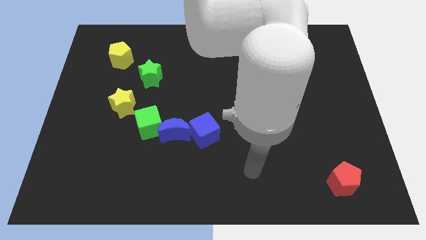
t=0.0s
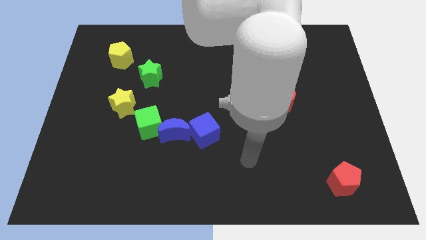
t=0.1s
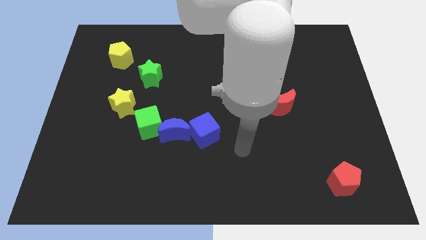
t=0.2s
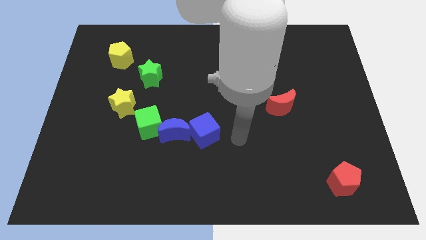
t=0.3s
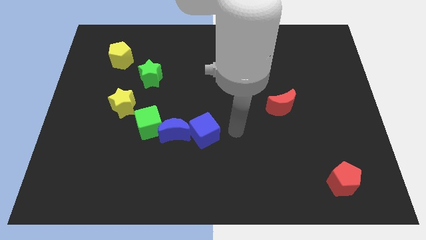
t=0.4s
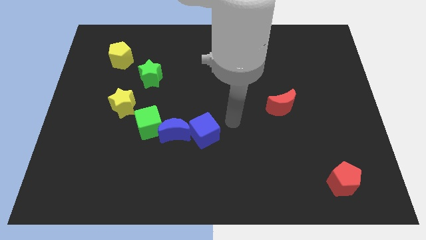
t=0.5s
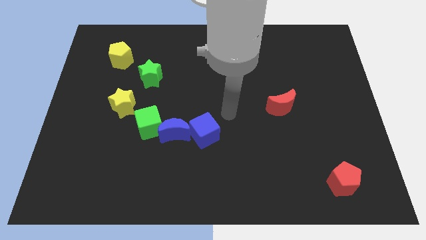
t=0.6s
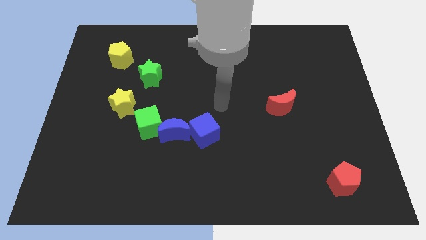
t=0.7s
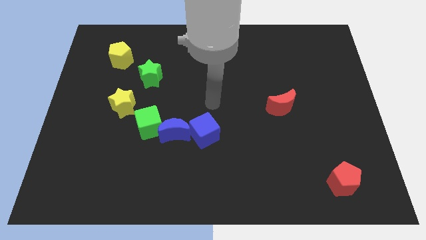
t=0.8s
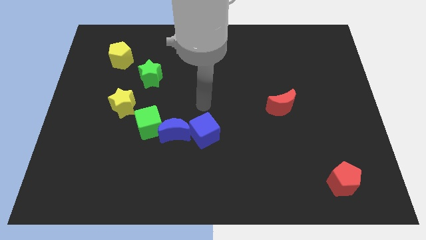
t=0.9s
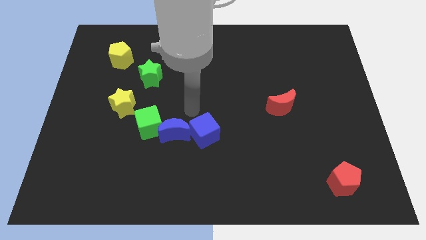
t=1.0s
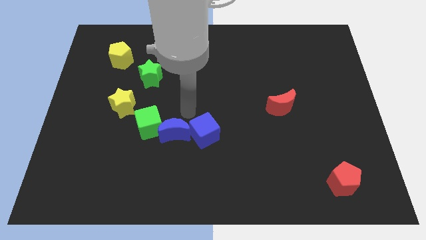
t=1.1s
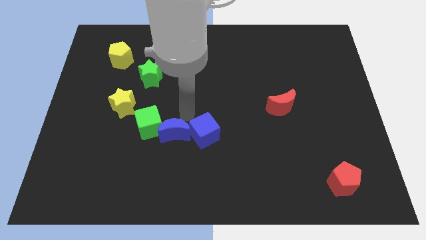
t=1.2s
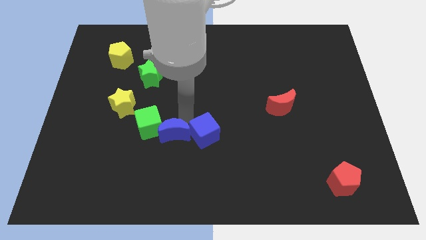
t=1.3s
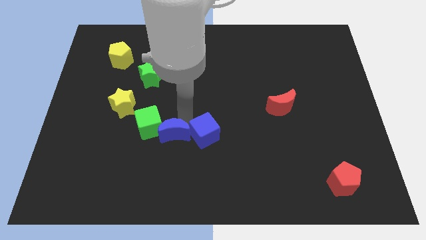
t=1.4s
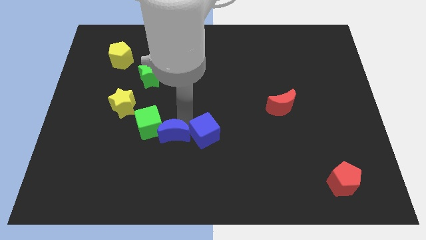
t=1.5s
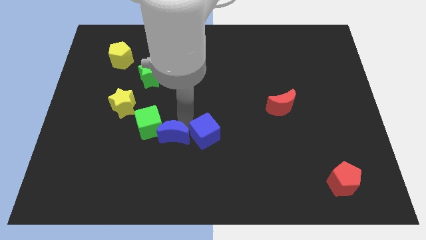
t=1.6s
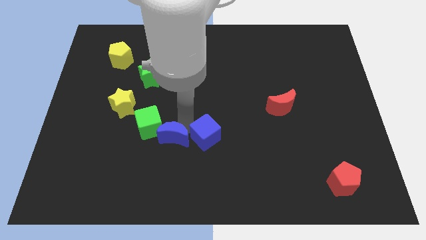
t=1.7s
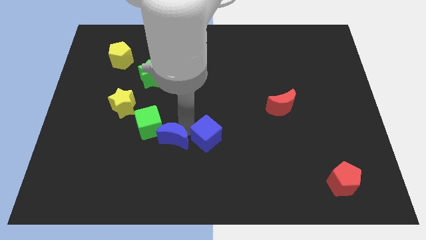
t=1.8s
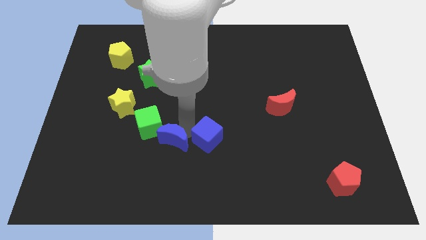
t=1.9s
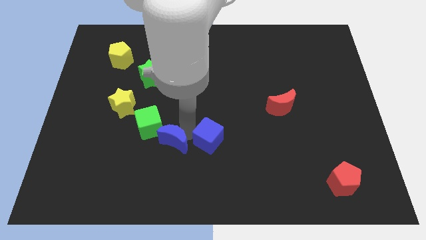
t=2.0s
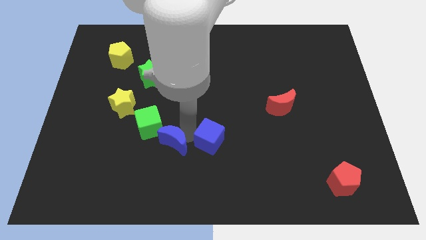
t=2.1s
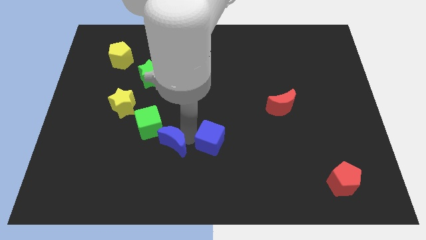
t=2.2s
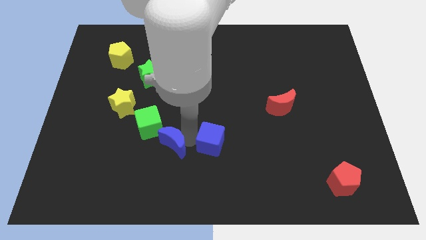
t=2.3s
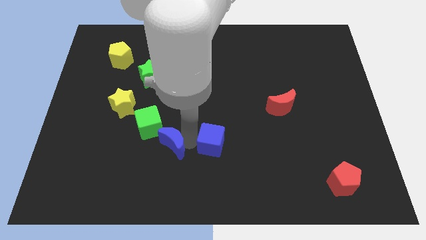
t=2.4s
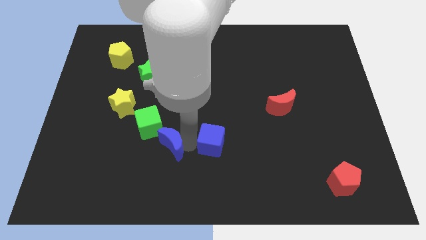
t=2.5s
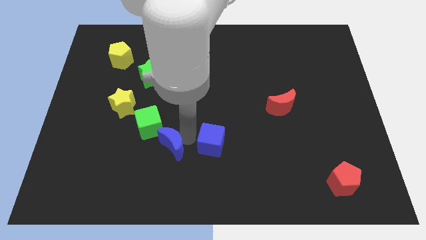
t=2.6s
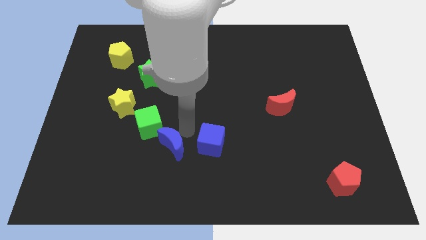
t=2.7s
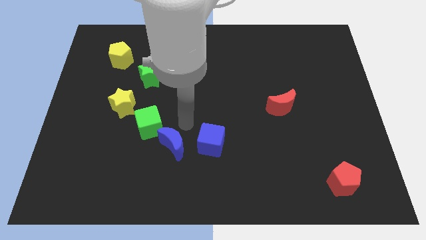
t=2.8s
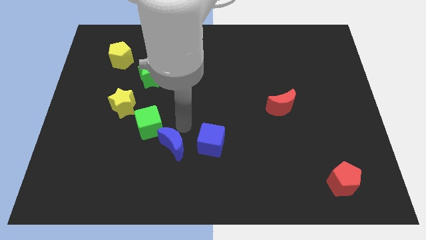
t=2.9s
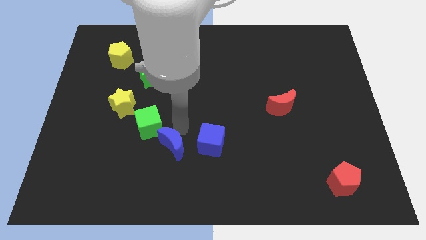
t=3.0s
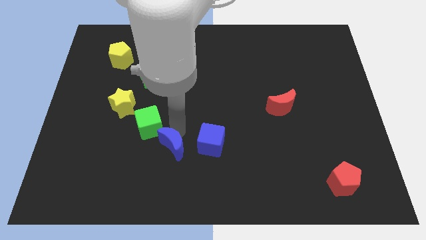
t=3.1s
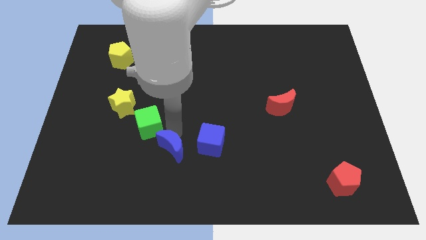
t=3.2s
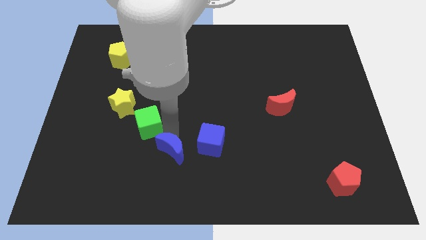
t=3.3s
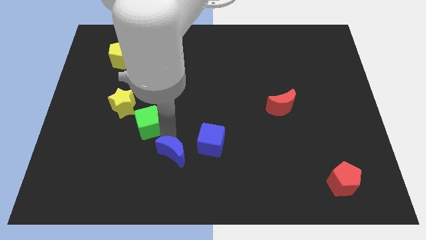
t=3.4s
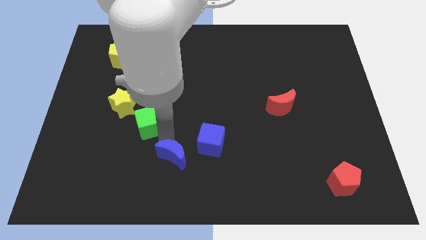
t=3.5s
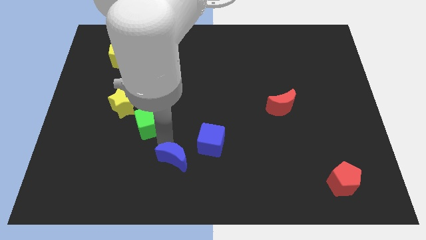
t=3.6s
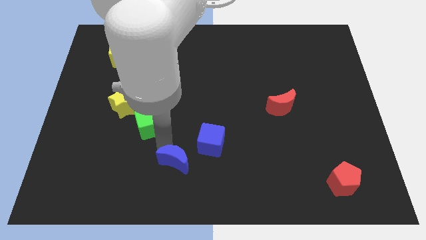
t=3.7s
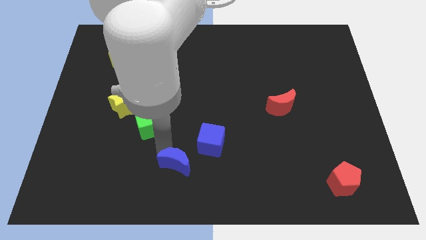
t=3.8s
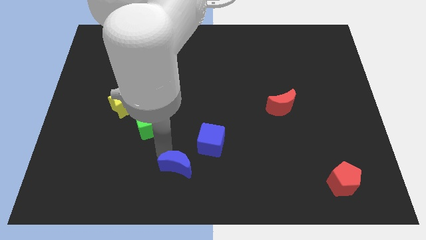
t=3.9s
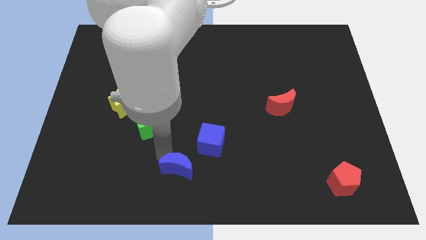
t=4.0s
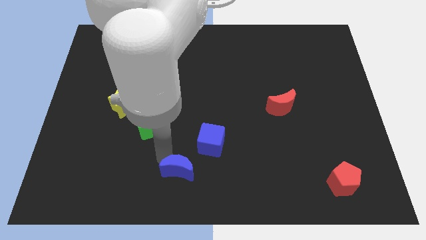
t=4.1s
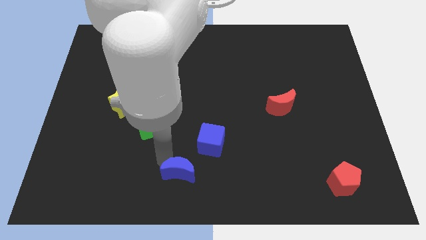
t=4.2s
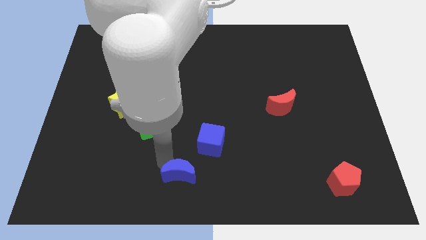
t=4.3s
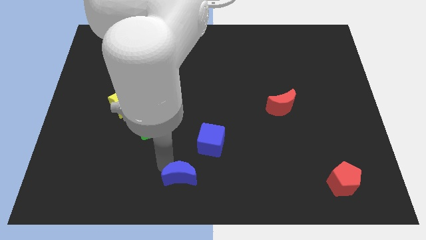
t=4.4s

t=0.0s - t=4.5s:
separate the blue moon from the green cube and blue cube

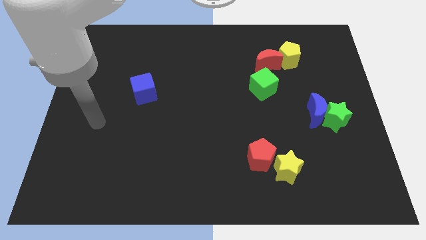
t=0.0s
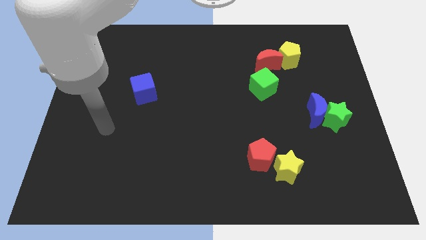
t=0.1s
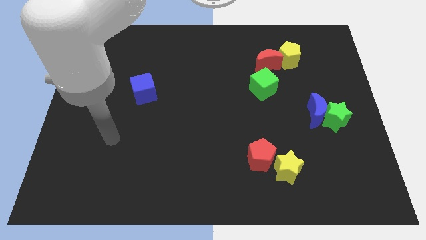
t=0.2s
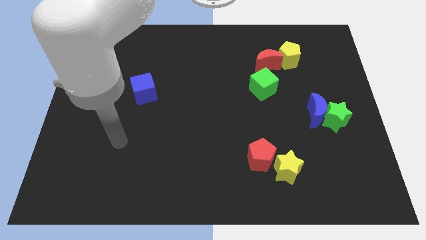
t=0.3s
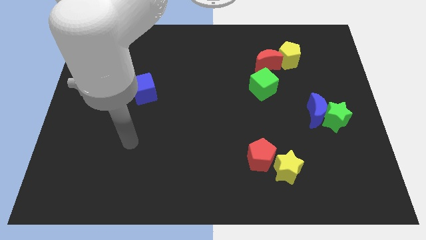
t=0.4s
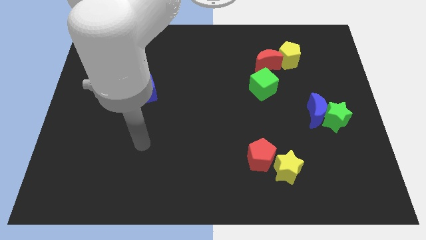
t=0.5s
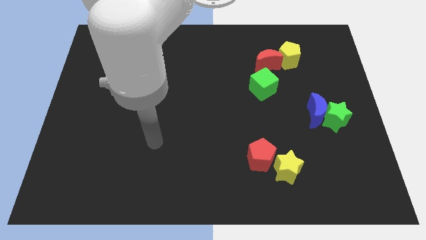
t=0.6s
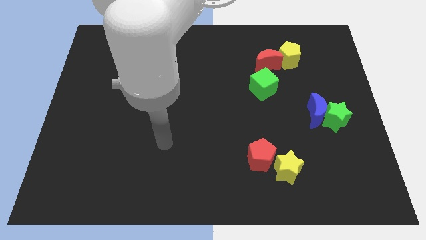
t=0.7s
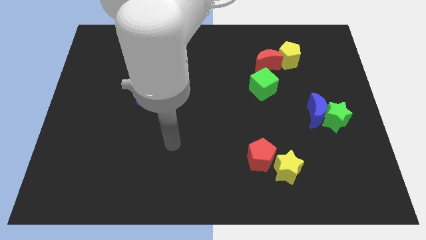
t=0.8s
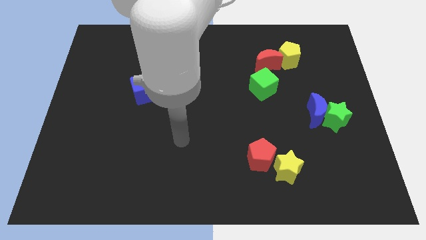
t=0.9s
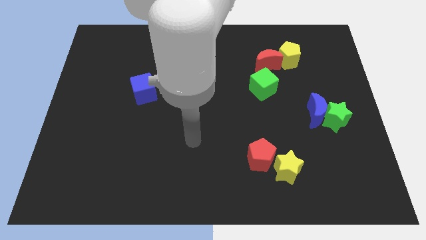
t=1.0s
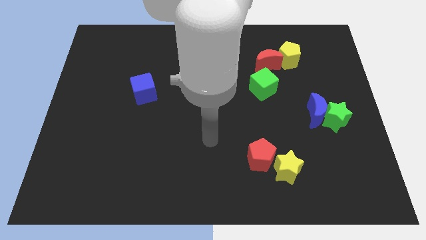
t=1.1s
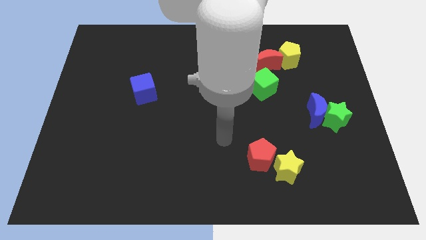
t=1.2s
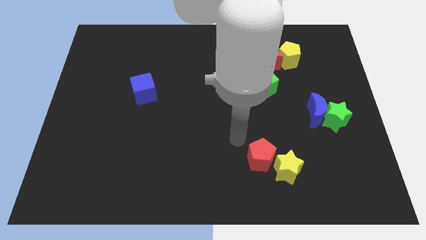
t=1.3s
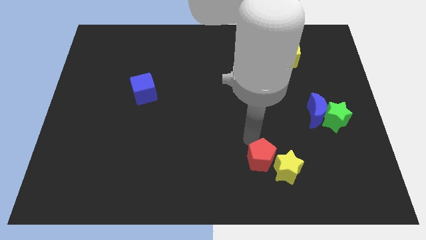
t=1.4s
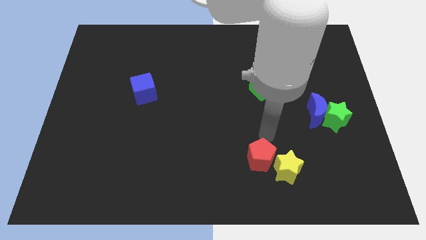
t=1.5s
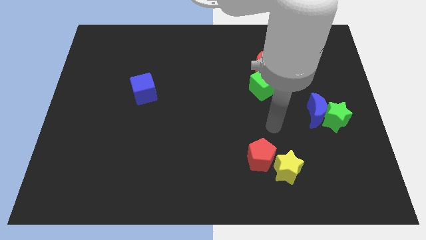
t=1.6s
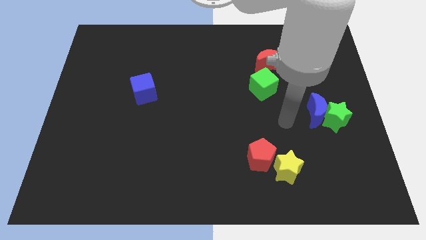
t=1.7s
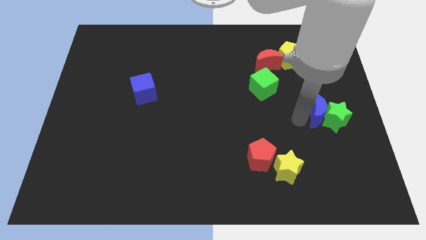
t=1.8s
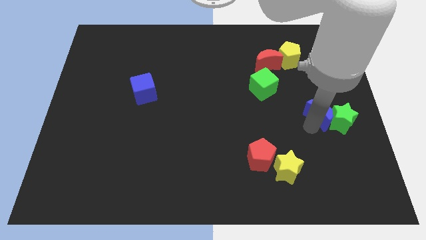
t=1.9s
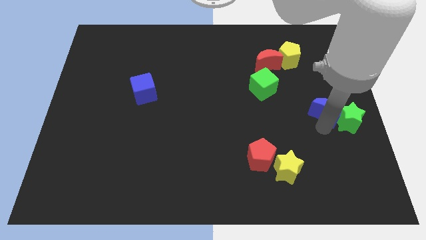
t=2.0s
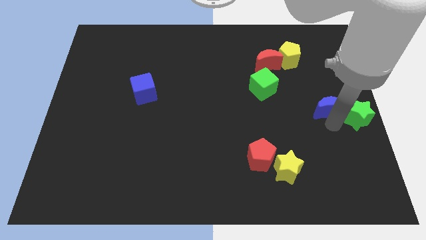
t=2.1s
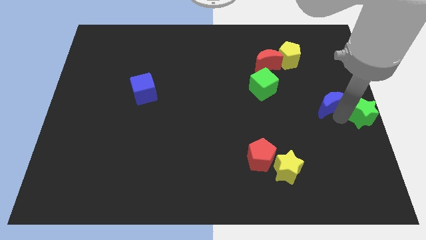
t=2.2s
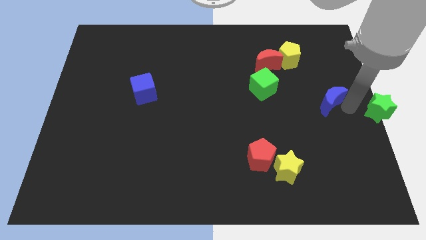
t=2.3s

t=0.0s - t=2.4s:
move the blue moon away from the green star

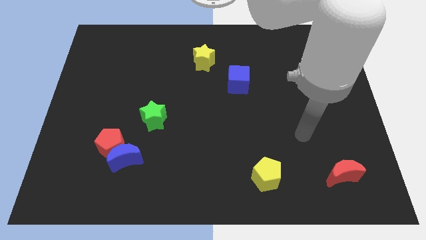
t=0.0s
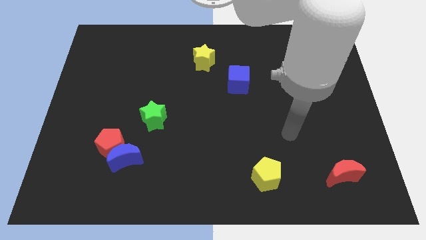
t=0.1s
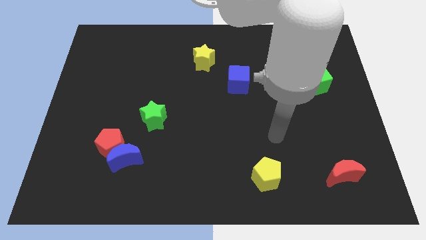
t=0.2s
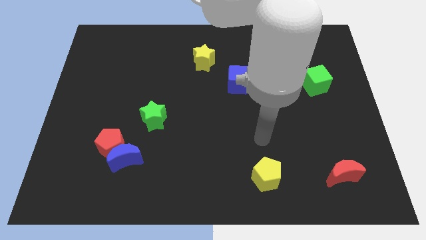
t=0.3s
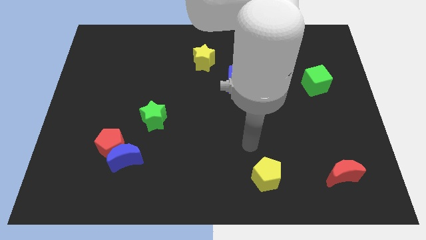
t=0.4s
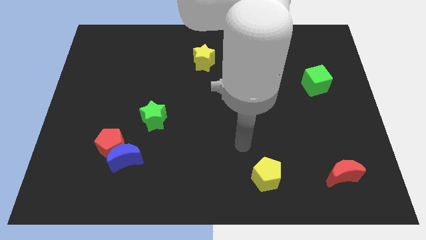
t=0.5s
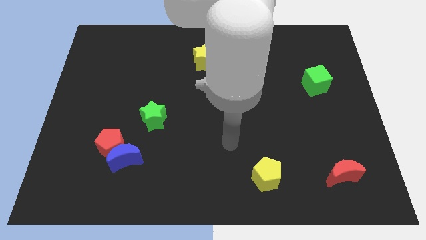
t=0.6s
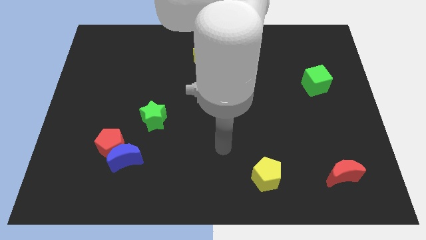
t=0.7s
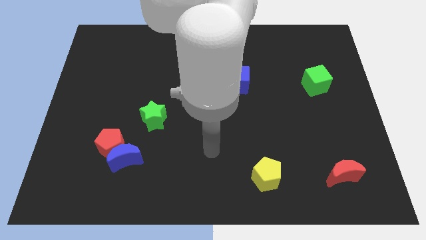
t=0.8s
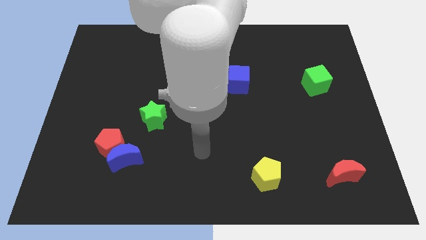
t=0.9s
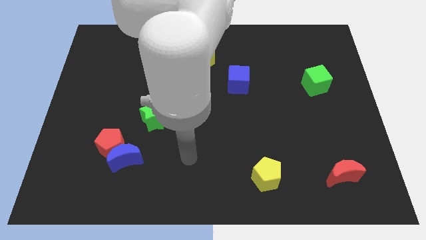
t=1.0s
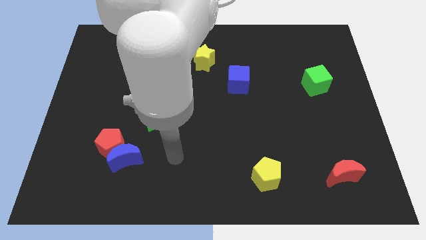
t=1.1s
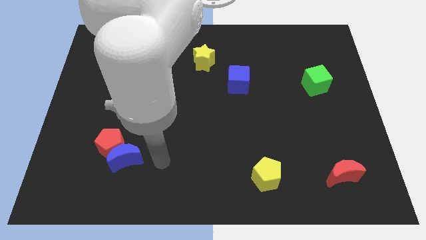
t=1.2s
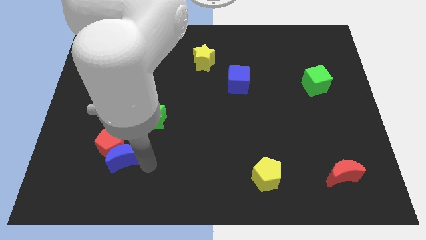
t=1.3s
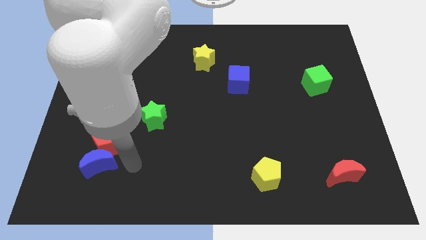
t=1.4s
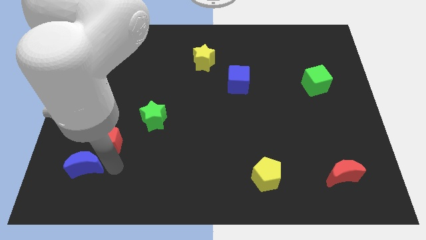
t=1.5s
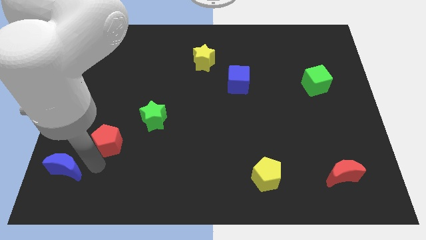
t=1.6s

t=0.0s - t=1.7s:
separate the red pentagon from the blue moon

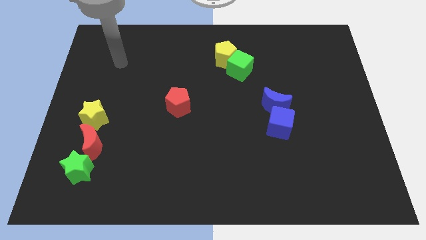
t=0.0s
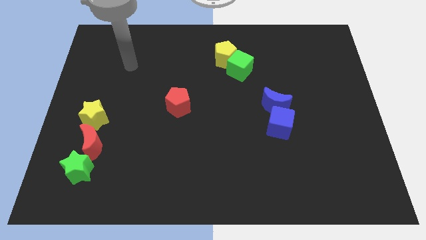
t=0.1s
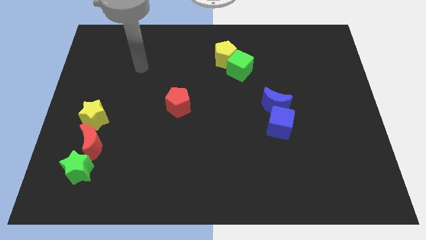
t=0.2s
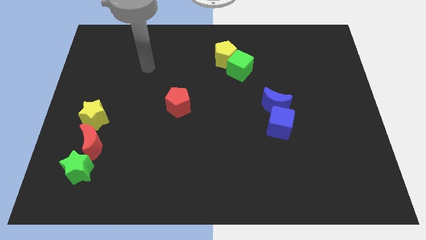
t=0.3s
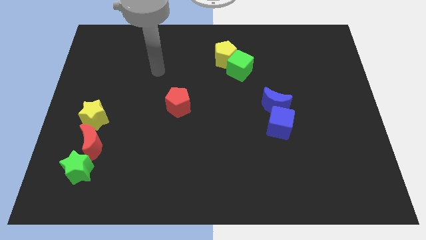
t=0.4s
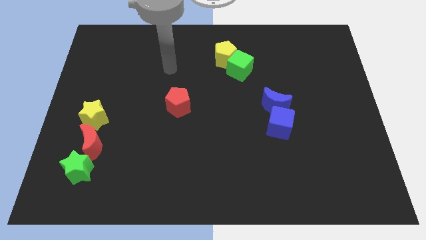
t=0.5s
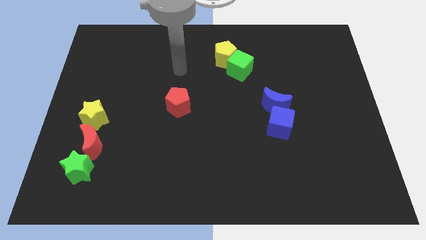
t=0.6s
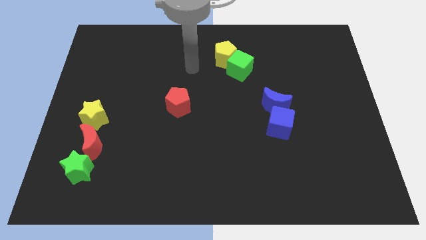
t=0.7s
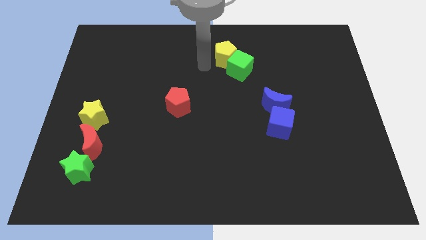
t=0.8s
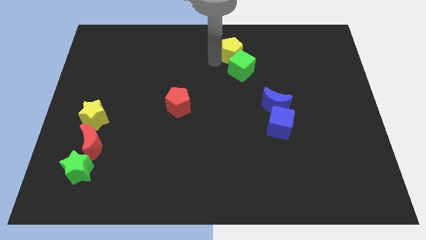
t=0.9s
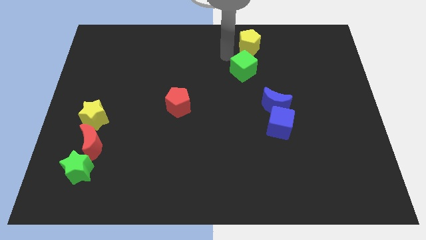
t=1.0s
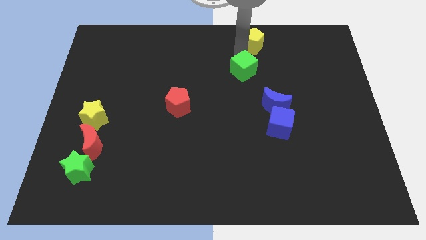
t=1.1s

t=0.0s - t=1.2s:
separate the green cube from the yellow pentagon
